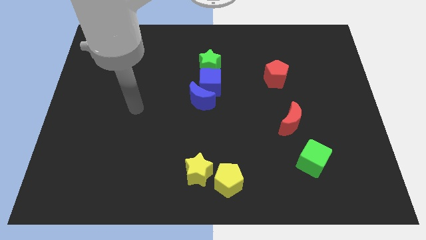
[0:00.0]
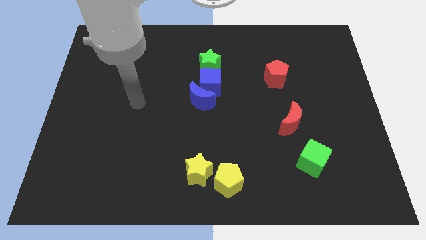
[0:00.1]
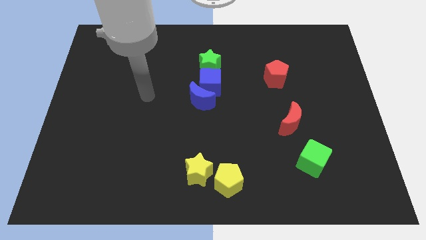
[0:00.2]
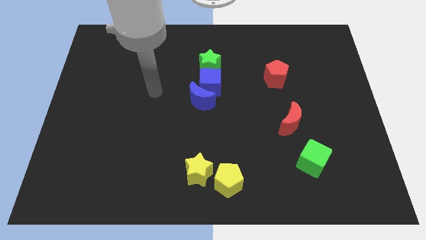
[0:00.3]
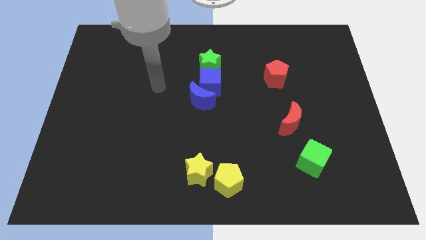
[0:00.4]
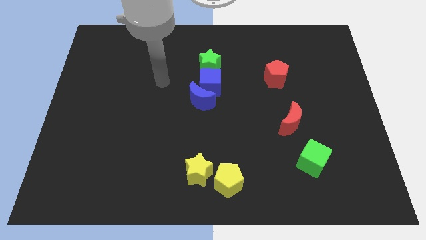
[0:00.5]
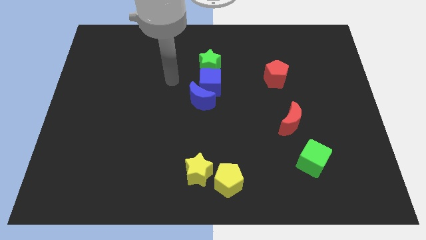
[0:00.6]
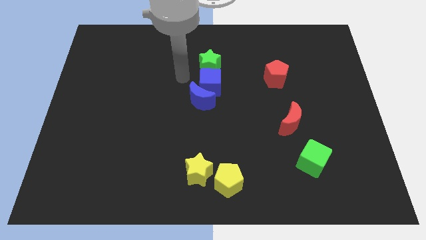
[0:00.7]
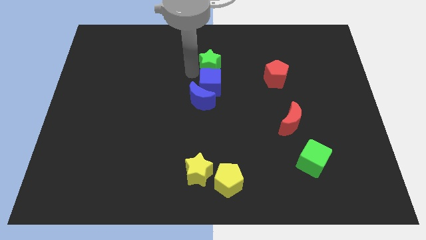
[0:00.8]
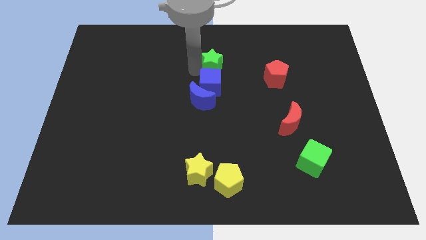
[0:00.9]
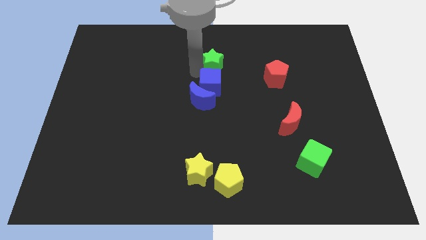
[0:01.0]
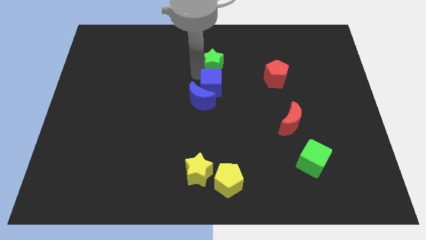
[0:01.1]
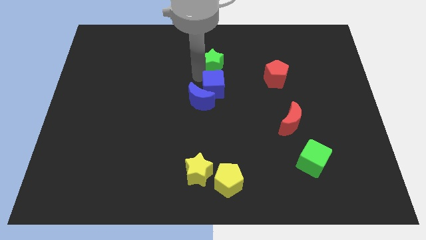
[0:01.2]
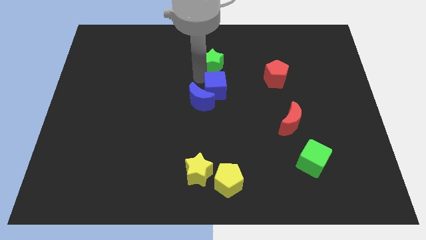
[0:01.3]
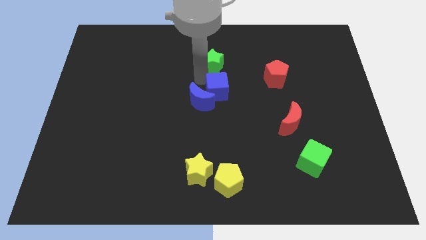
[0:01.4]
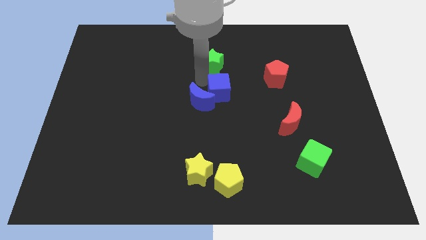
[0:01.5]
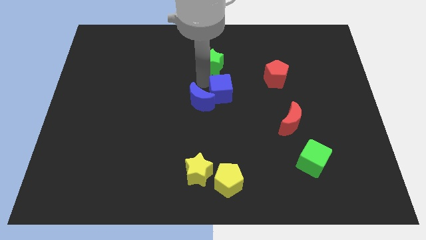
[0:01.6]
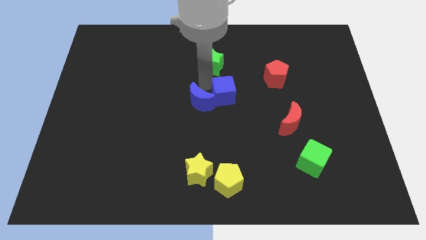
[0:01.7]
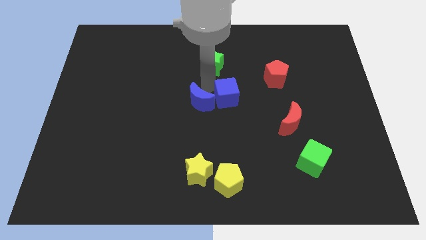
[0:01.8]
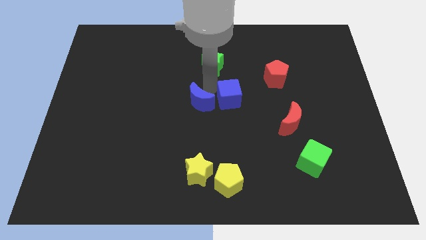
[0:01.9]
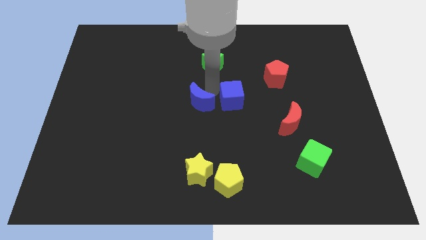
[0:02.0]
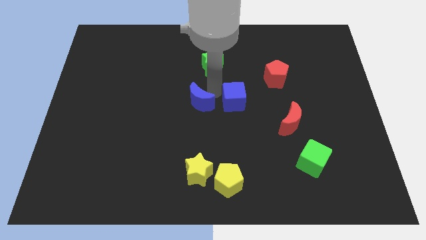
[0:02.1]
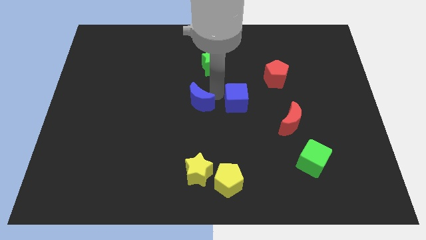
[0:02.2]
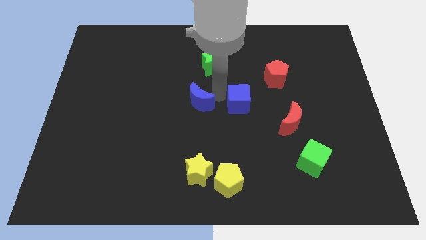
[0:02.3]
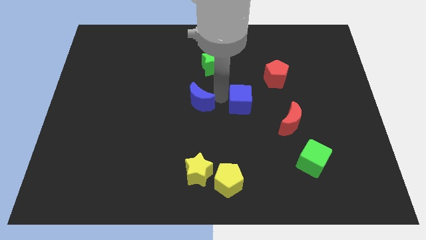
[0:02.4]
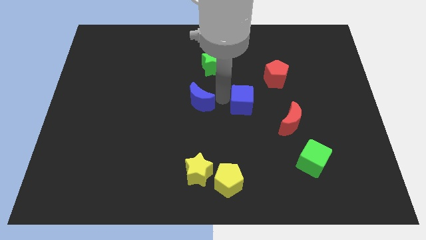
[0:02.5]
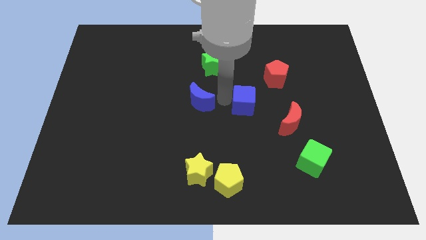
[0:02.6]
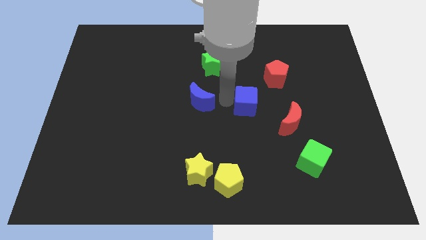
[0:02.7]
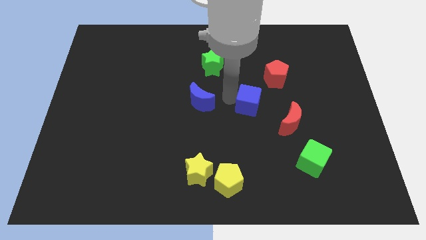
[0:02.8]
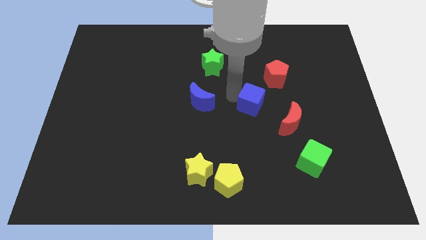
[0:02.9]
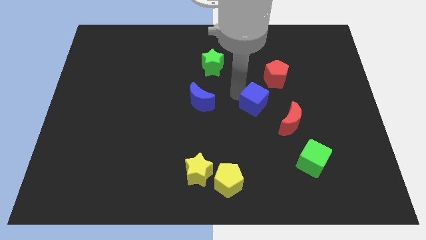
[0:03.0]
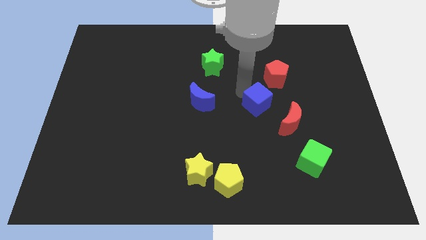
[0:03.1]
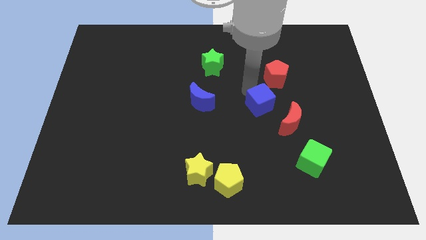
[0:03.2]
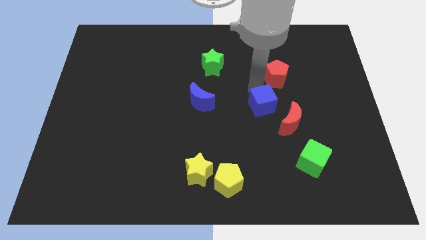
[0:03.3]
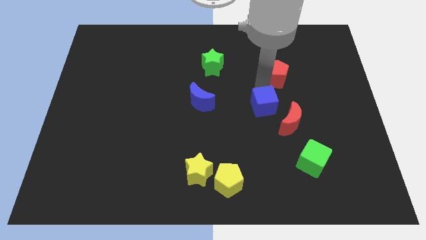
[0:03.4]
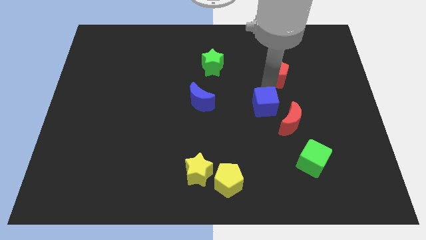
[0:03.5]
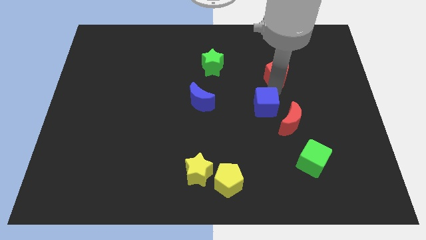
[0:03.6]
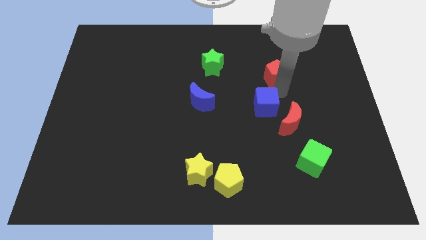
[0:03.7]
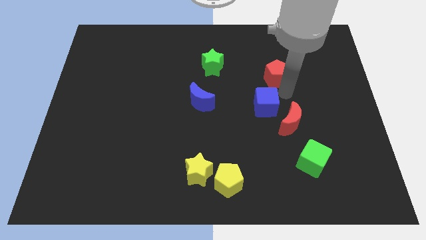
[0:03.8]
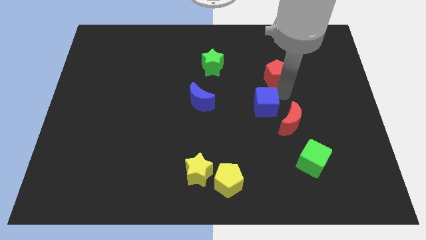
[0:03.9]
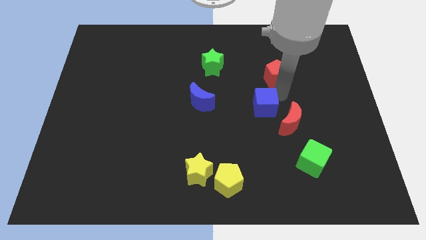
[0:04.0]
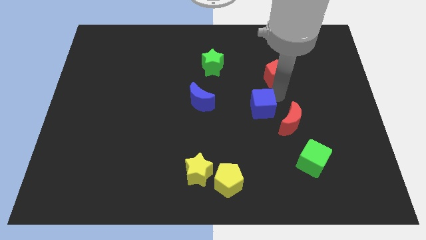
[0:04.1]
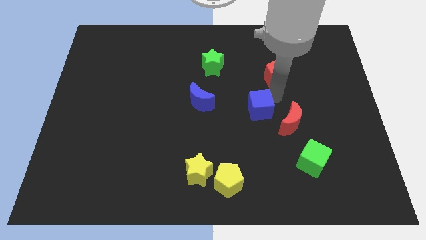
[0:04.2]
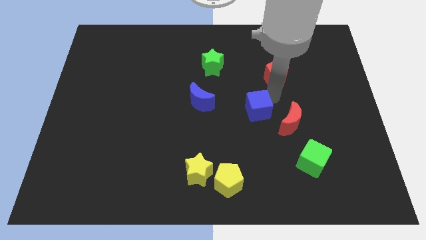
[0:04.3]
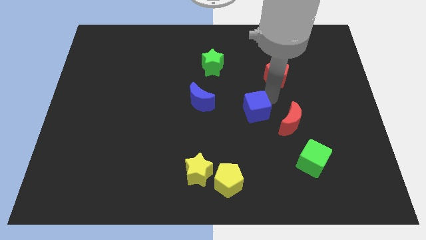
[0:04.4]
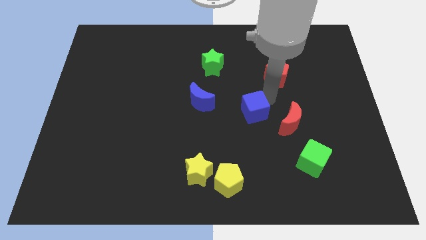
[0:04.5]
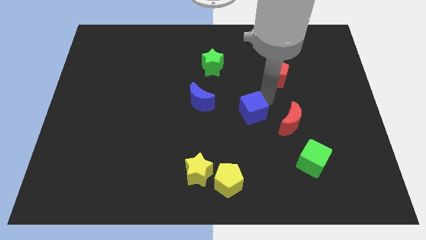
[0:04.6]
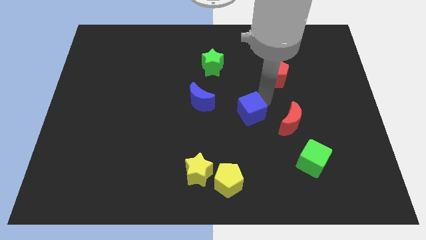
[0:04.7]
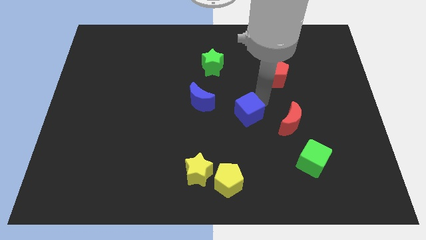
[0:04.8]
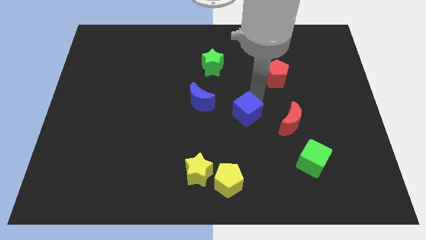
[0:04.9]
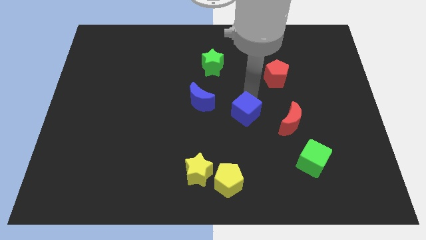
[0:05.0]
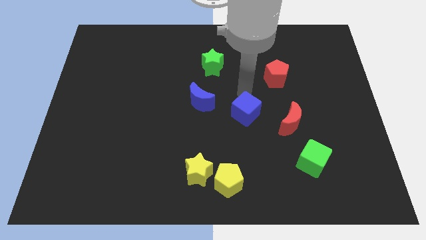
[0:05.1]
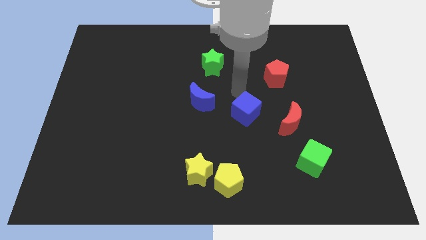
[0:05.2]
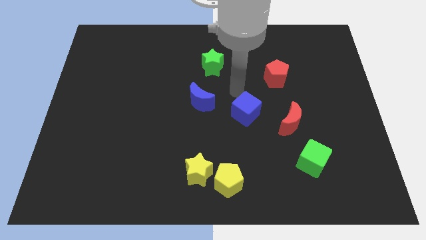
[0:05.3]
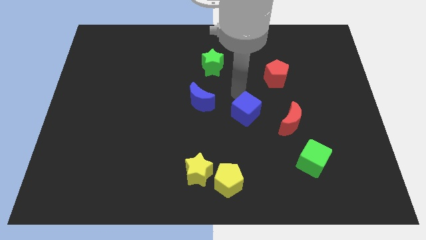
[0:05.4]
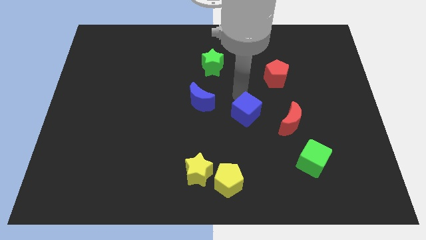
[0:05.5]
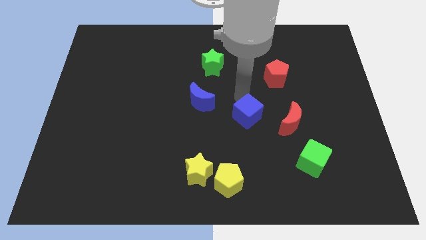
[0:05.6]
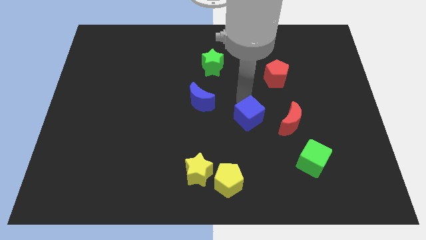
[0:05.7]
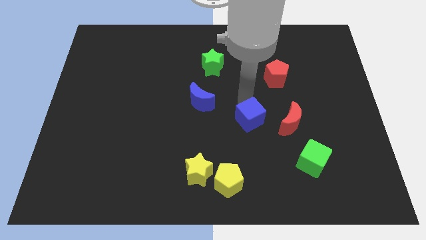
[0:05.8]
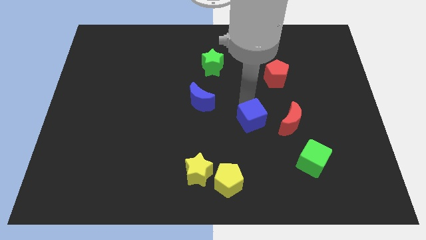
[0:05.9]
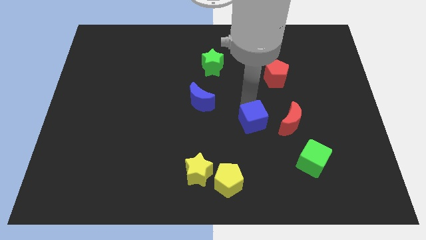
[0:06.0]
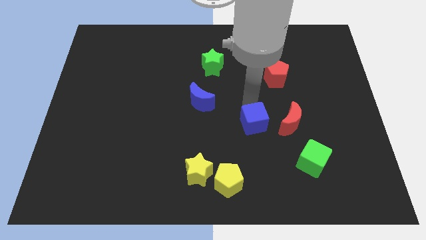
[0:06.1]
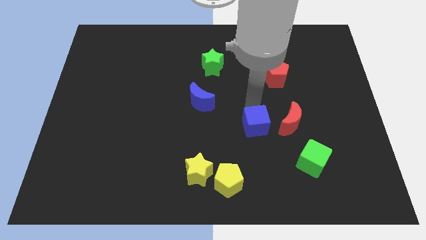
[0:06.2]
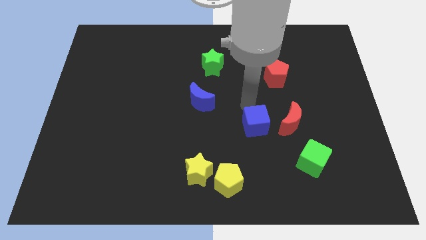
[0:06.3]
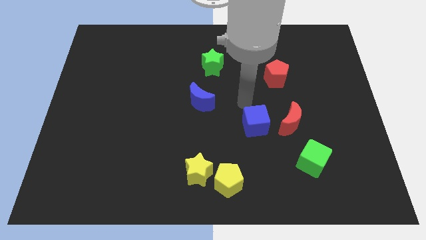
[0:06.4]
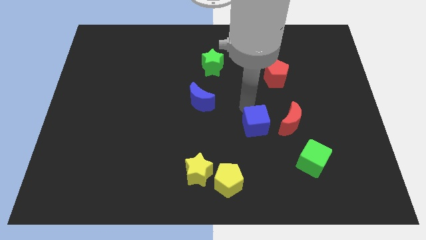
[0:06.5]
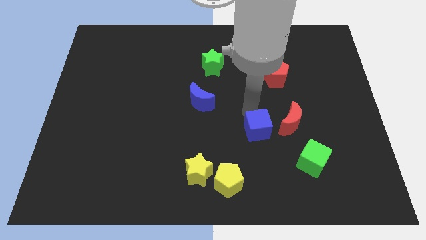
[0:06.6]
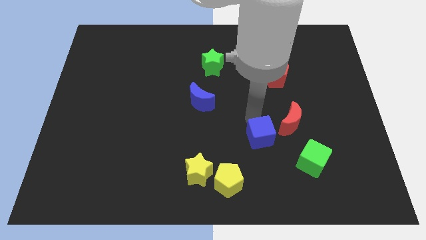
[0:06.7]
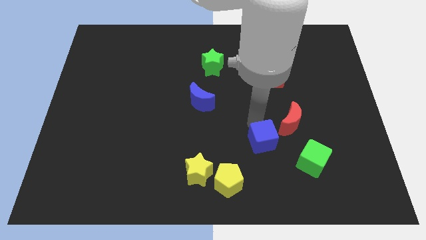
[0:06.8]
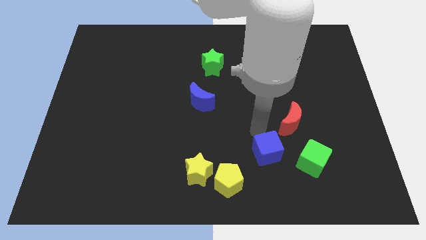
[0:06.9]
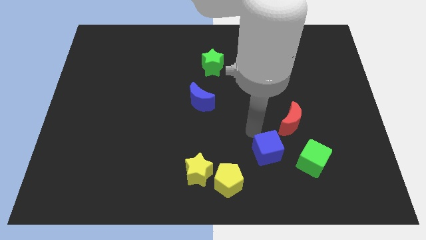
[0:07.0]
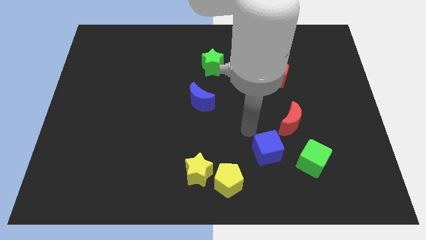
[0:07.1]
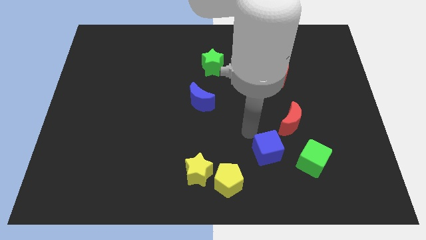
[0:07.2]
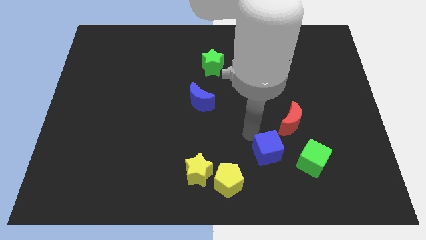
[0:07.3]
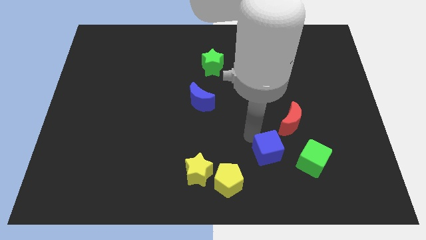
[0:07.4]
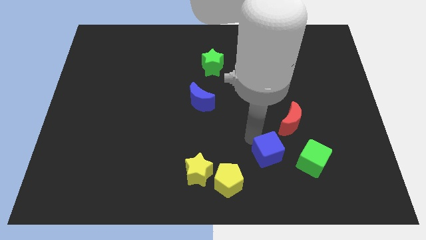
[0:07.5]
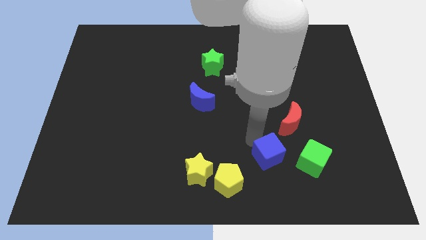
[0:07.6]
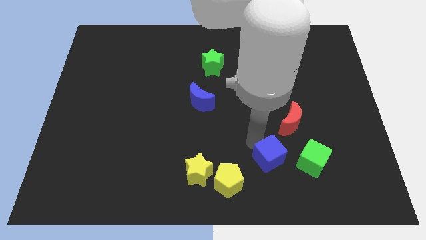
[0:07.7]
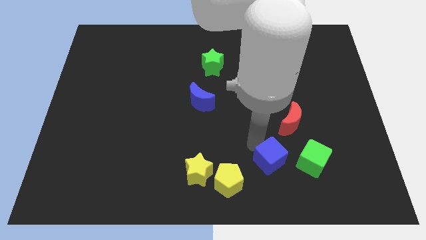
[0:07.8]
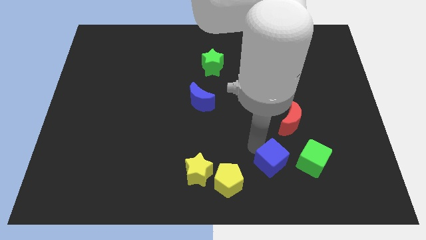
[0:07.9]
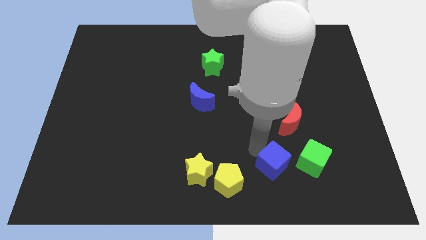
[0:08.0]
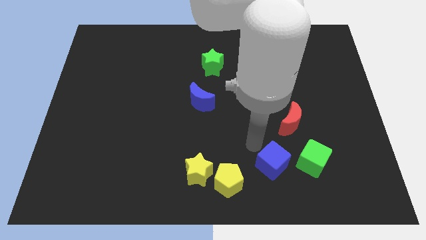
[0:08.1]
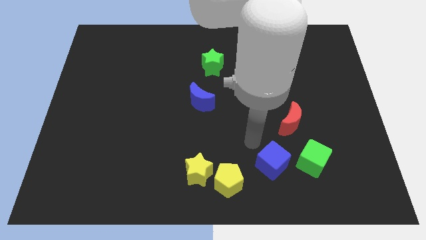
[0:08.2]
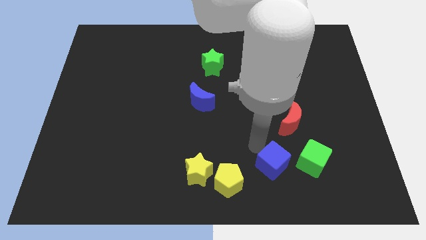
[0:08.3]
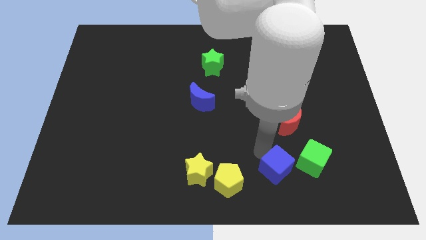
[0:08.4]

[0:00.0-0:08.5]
move the blue cube diagonally down and to the left of the green cube
